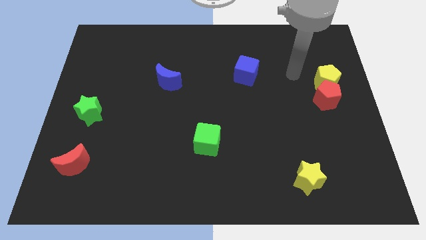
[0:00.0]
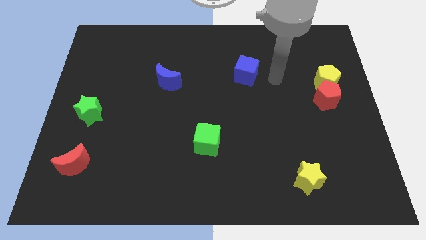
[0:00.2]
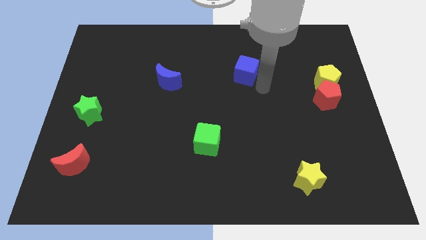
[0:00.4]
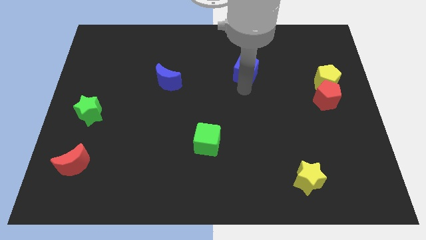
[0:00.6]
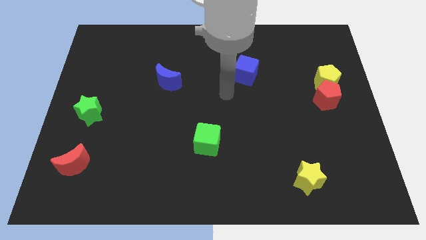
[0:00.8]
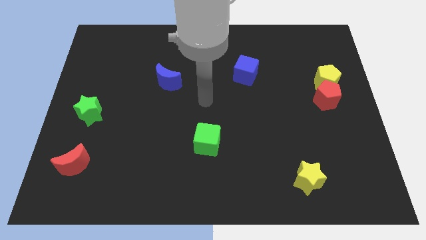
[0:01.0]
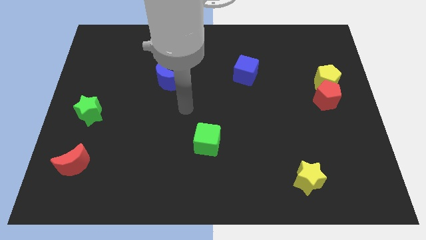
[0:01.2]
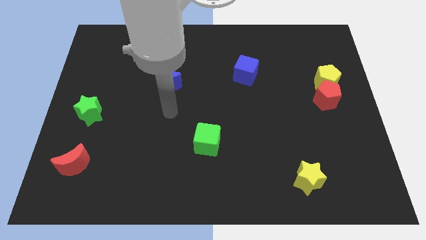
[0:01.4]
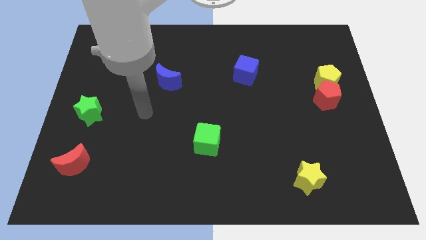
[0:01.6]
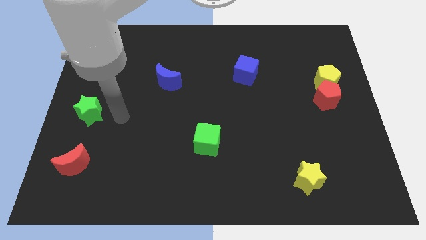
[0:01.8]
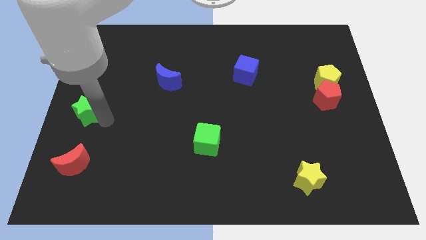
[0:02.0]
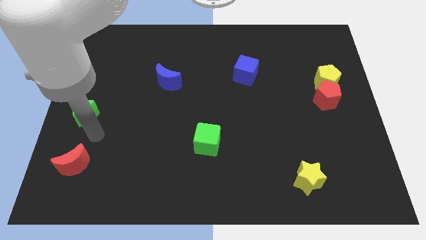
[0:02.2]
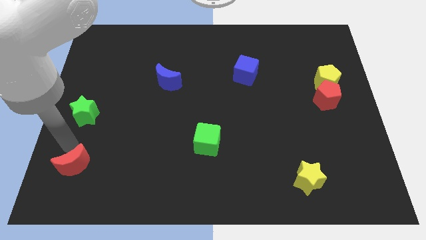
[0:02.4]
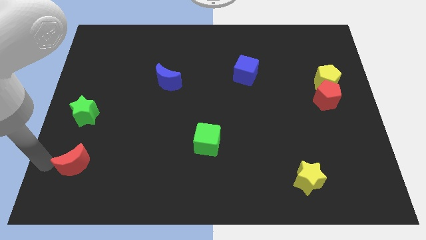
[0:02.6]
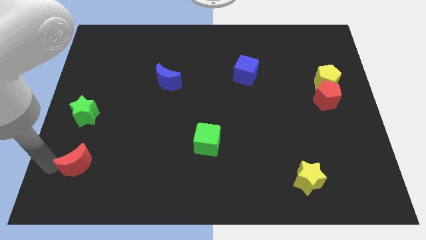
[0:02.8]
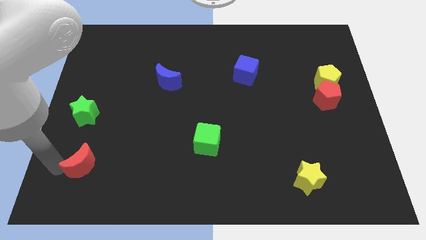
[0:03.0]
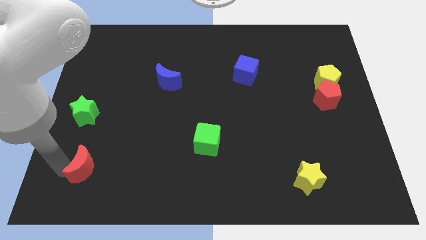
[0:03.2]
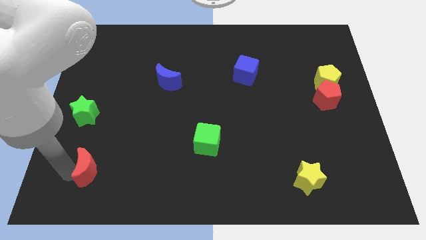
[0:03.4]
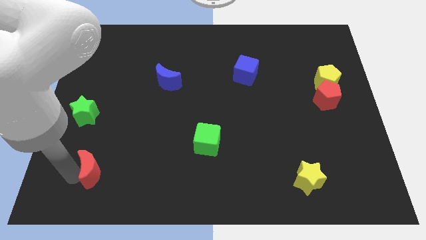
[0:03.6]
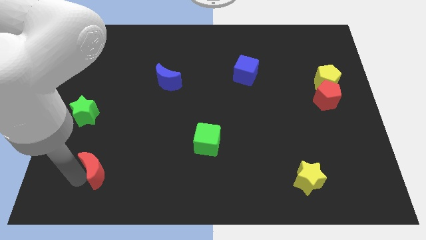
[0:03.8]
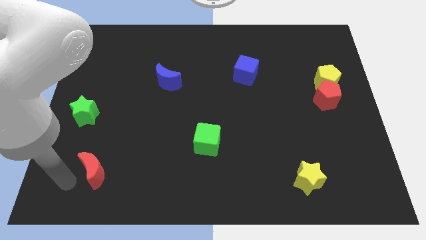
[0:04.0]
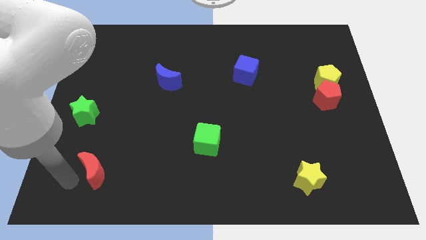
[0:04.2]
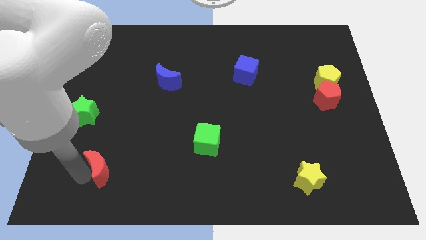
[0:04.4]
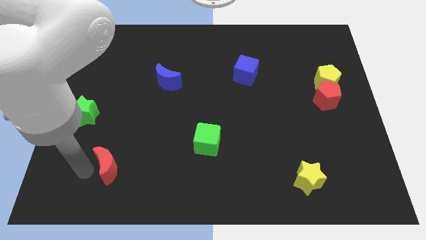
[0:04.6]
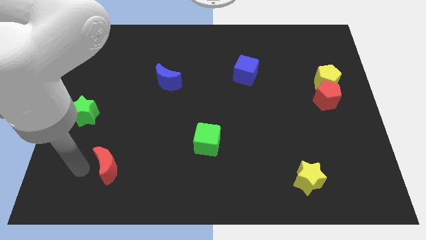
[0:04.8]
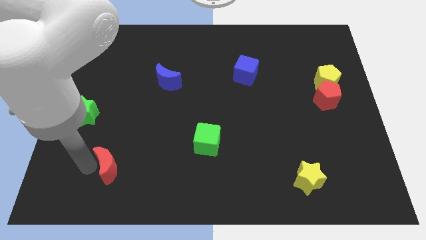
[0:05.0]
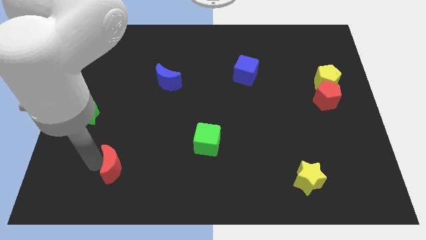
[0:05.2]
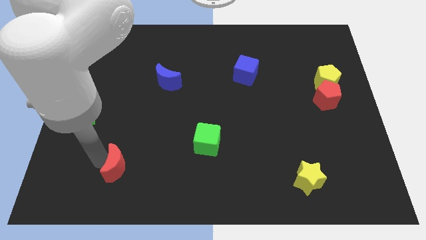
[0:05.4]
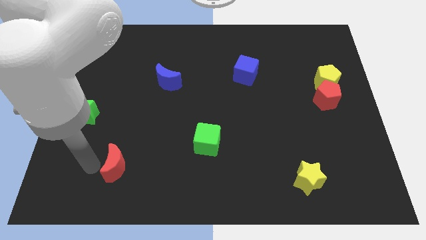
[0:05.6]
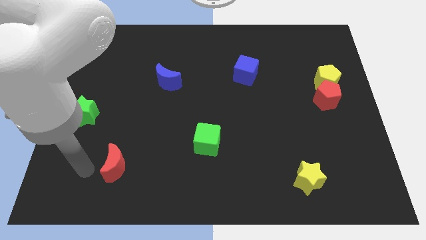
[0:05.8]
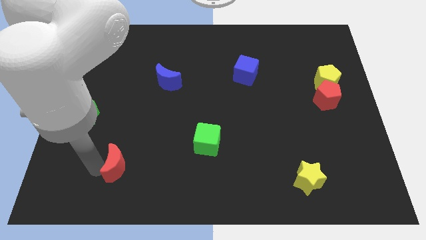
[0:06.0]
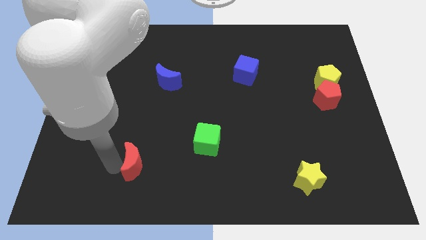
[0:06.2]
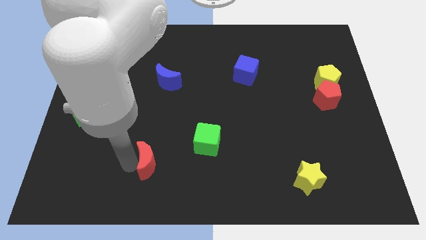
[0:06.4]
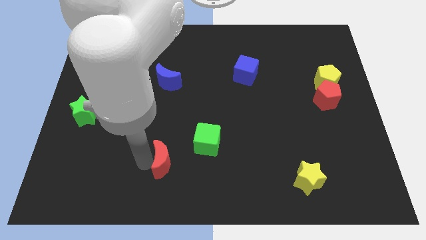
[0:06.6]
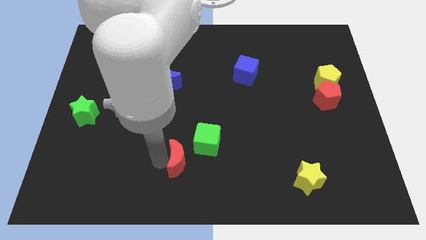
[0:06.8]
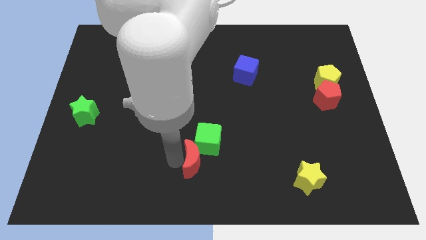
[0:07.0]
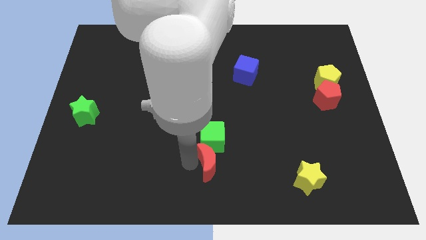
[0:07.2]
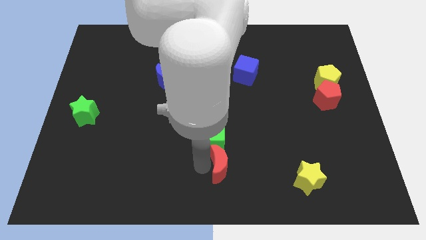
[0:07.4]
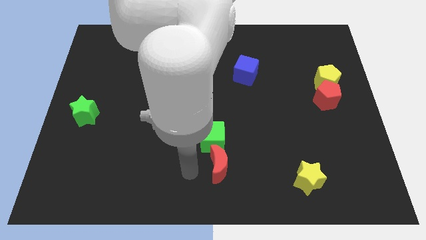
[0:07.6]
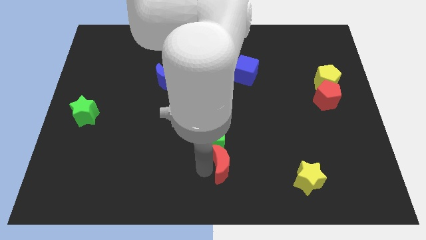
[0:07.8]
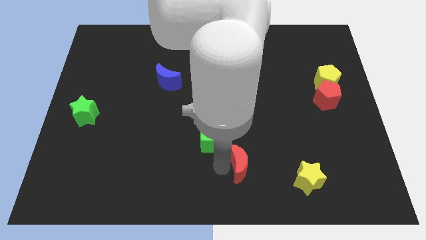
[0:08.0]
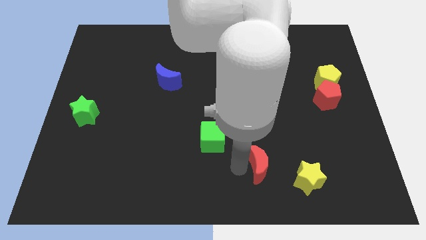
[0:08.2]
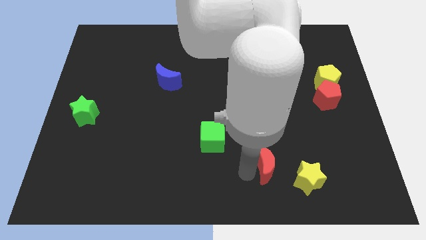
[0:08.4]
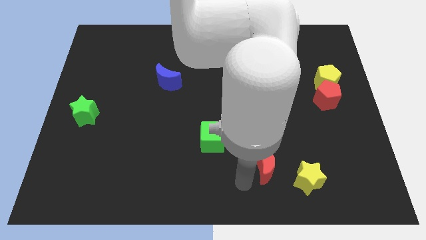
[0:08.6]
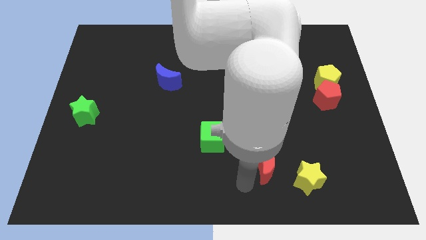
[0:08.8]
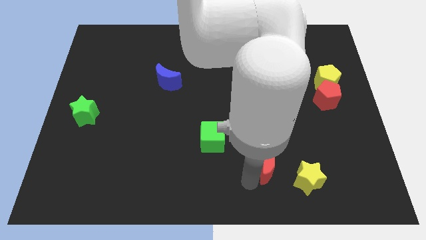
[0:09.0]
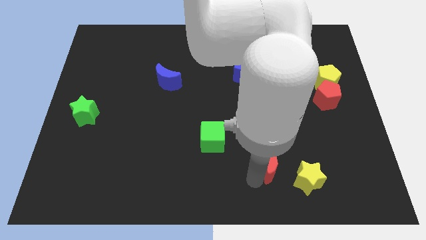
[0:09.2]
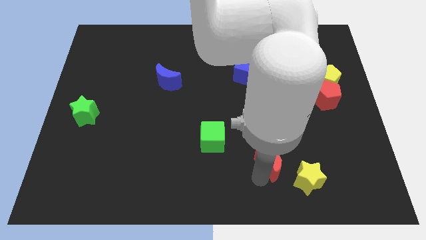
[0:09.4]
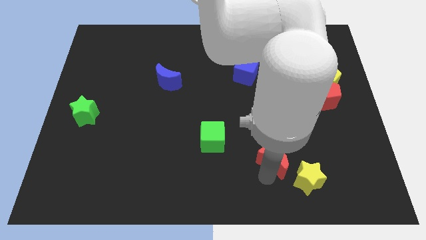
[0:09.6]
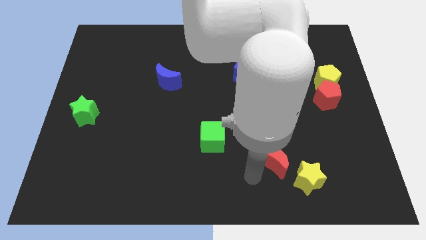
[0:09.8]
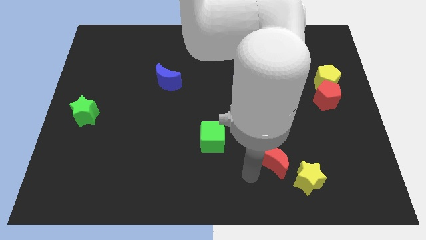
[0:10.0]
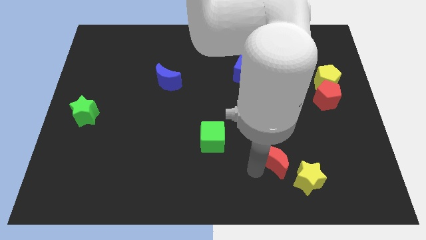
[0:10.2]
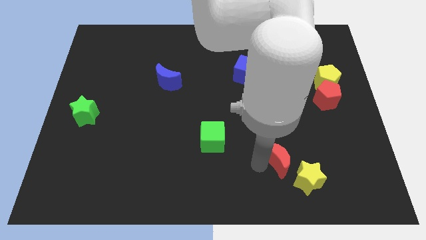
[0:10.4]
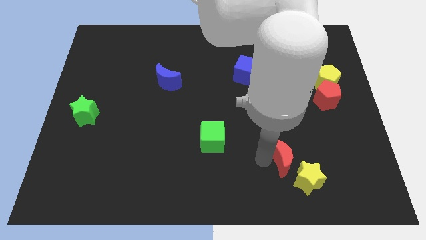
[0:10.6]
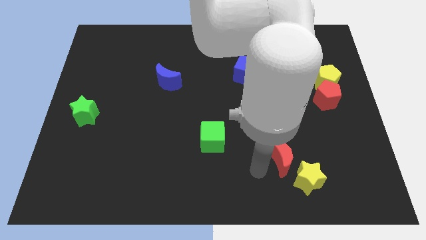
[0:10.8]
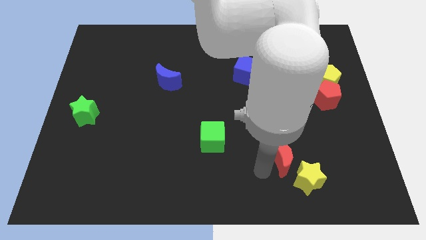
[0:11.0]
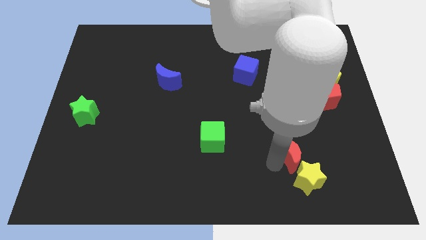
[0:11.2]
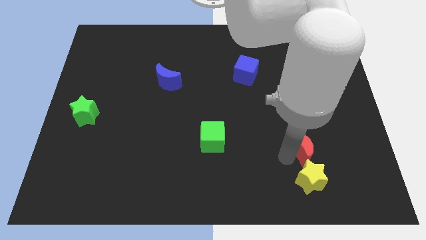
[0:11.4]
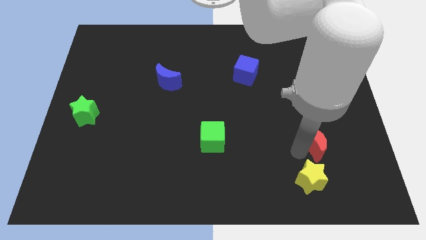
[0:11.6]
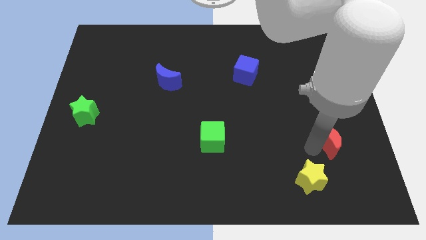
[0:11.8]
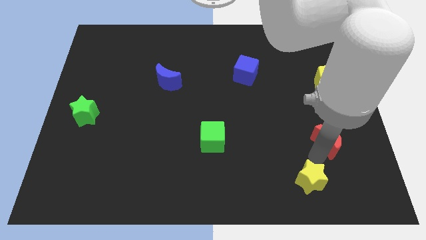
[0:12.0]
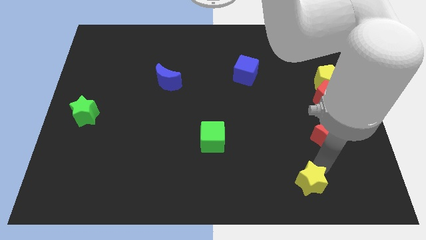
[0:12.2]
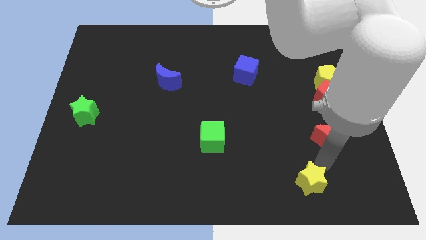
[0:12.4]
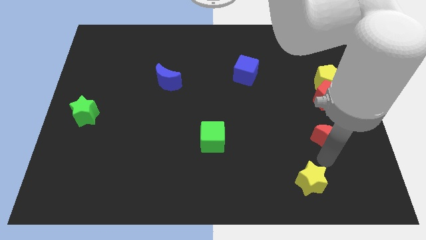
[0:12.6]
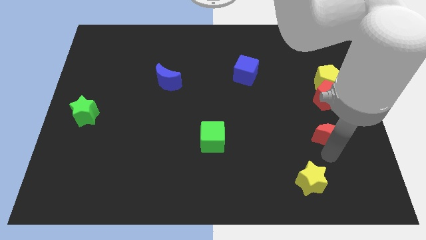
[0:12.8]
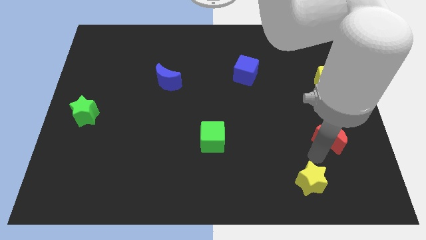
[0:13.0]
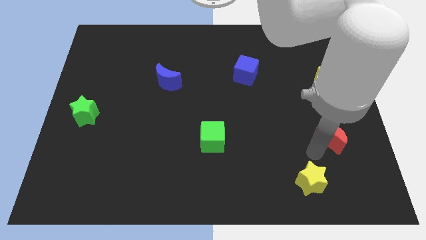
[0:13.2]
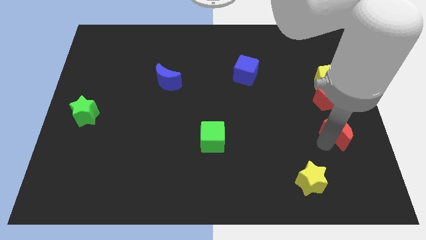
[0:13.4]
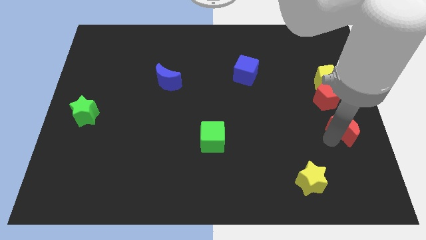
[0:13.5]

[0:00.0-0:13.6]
put the red moon to the center right

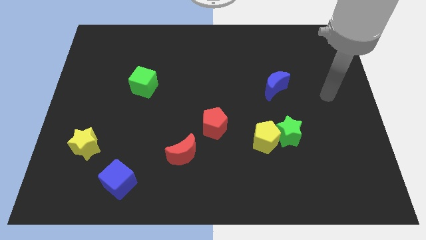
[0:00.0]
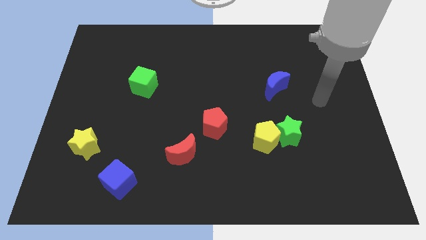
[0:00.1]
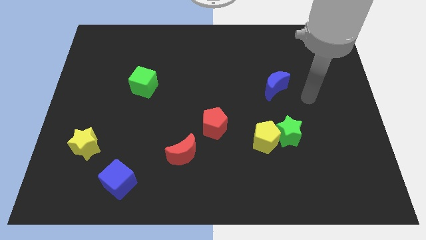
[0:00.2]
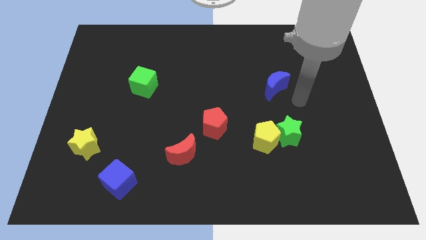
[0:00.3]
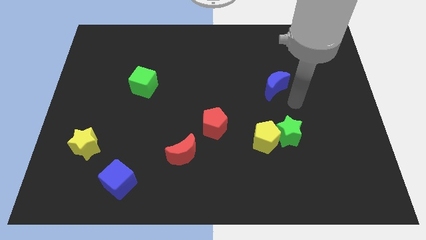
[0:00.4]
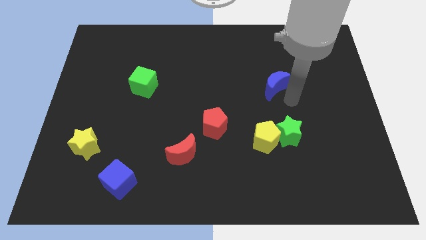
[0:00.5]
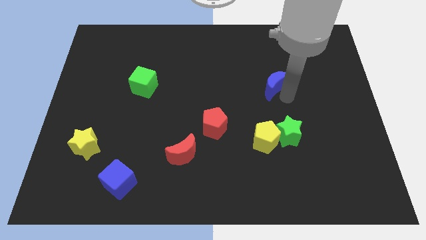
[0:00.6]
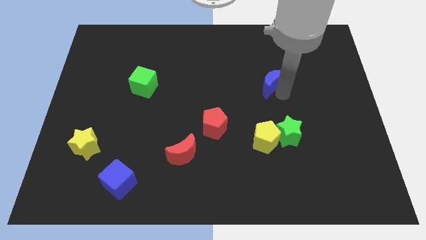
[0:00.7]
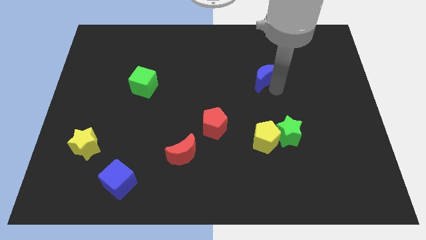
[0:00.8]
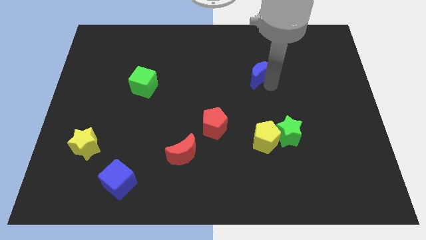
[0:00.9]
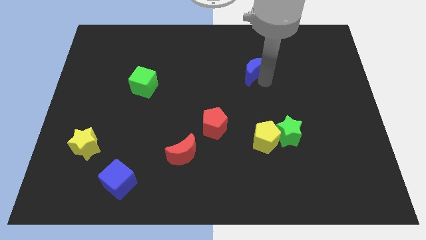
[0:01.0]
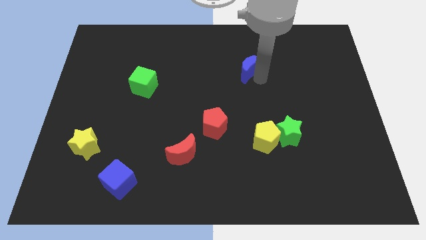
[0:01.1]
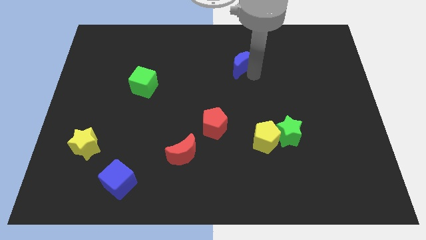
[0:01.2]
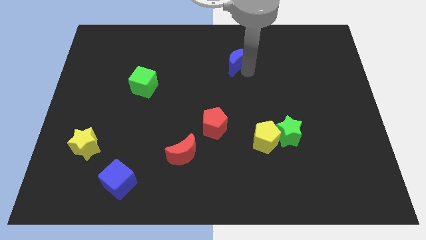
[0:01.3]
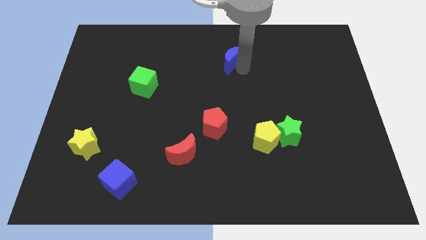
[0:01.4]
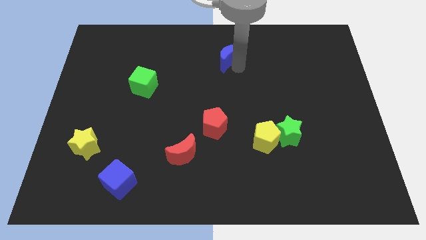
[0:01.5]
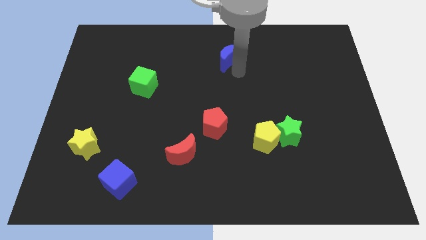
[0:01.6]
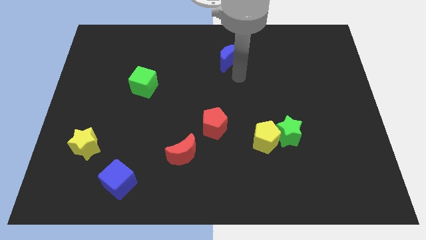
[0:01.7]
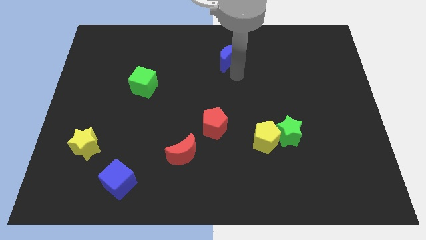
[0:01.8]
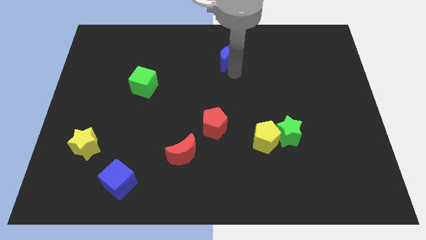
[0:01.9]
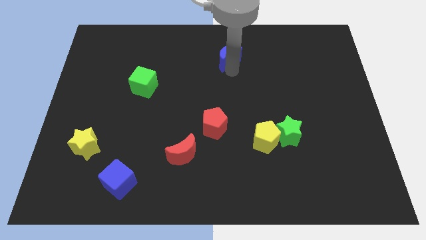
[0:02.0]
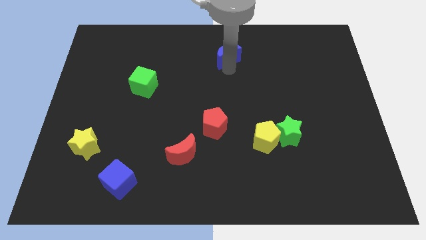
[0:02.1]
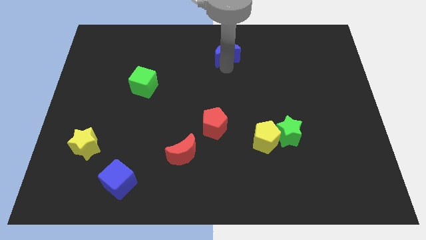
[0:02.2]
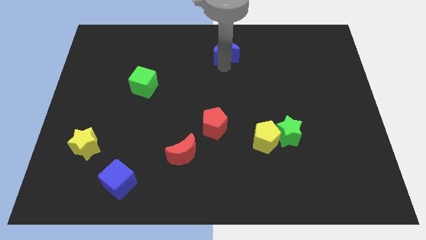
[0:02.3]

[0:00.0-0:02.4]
put the blue moon to the top
